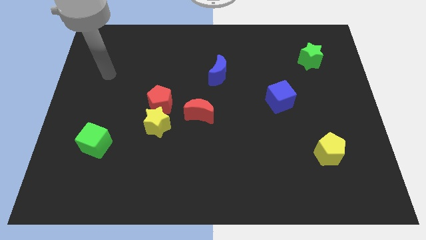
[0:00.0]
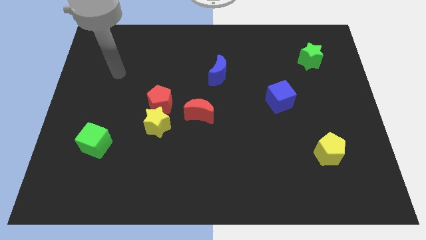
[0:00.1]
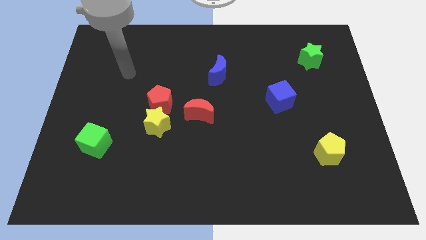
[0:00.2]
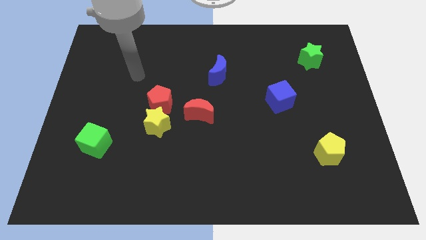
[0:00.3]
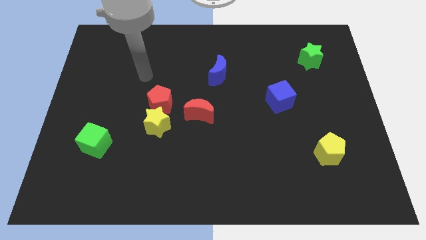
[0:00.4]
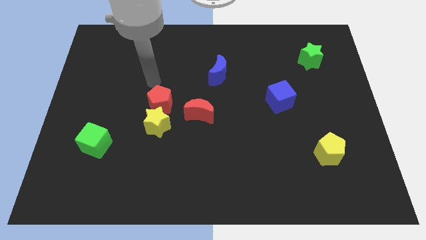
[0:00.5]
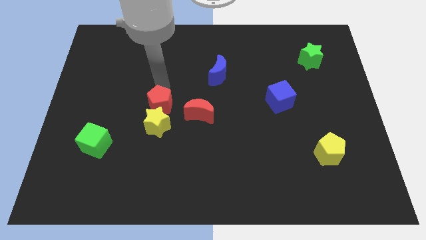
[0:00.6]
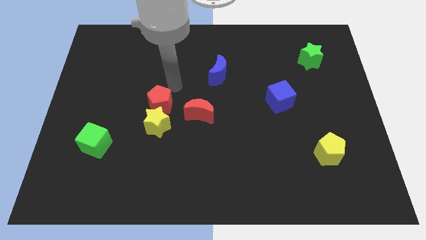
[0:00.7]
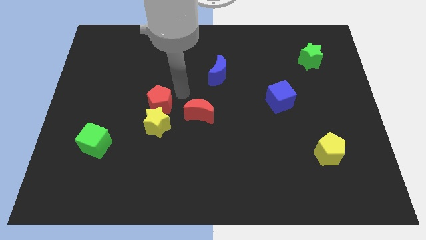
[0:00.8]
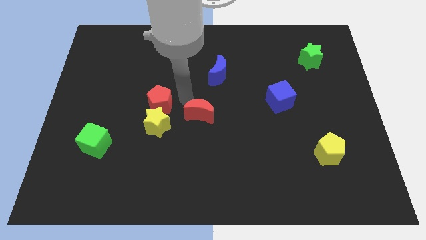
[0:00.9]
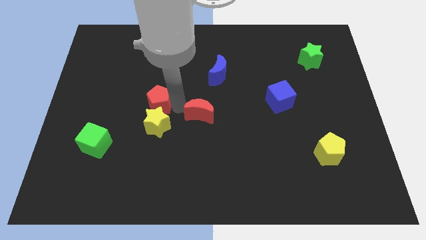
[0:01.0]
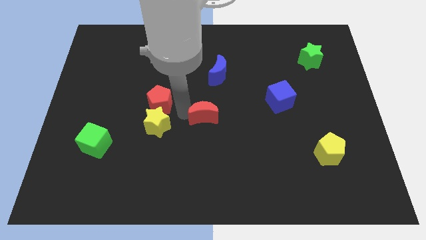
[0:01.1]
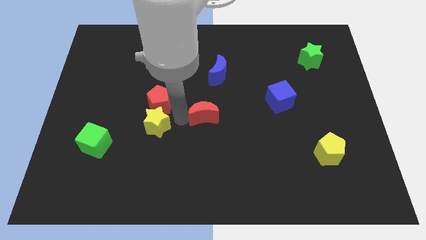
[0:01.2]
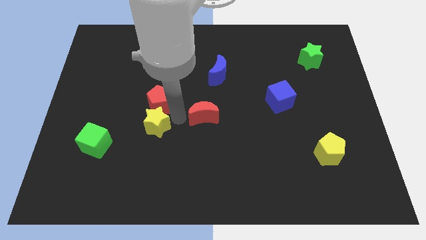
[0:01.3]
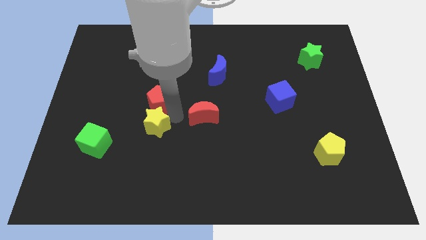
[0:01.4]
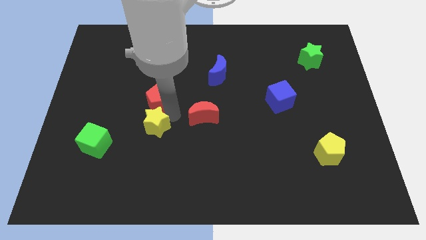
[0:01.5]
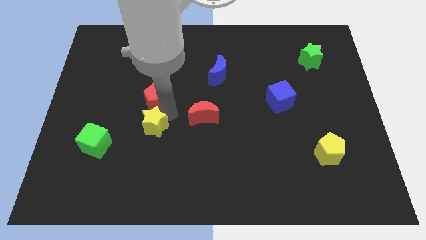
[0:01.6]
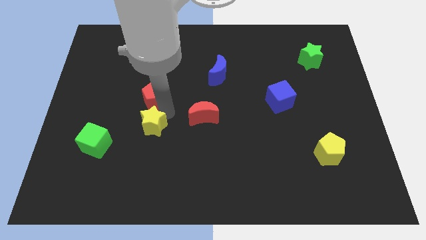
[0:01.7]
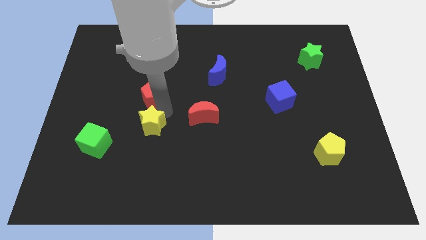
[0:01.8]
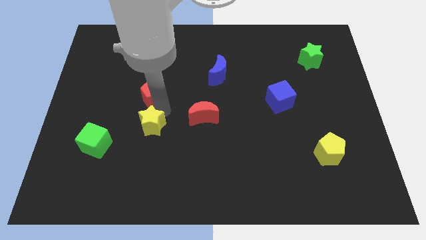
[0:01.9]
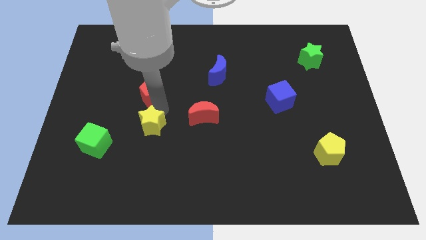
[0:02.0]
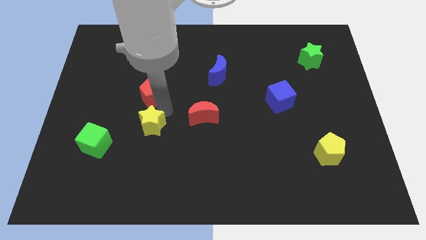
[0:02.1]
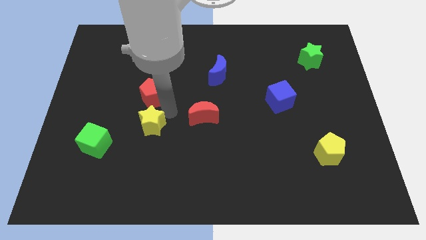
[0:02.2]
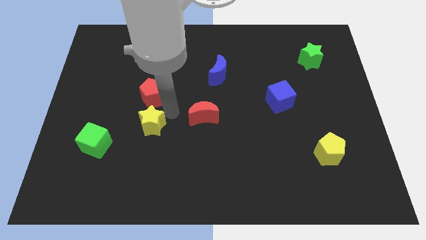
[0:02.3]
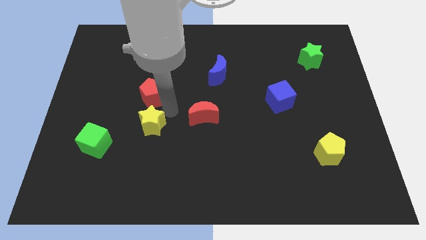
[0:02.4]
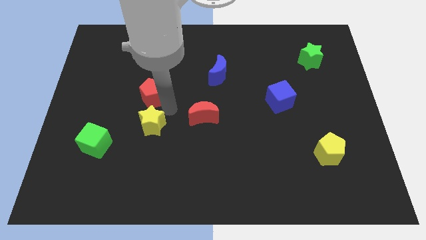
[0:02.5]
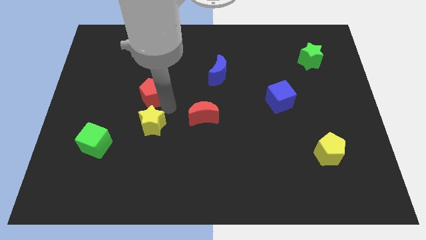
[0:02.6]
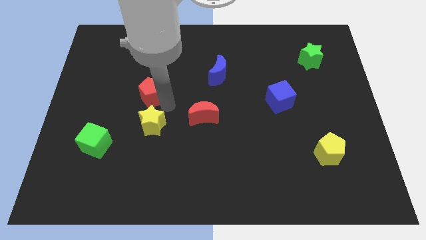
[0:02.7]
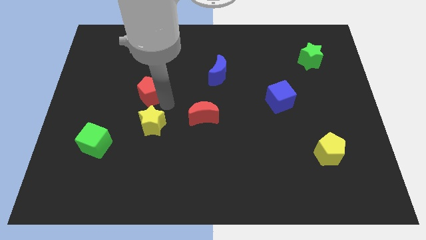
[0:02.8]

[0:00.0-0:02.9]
separate the red pentagon from the yellow star and red moon

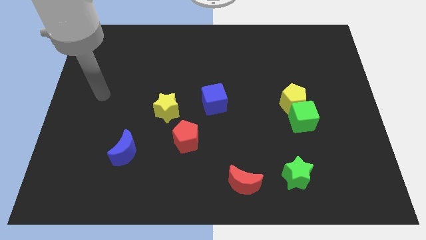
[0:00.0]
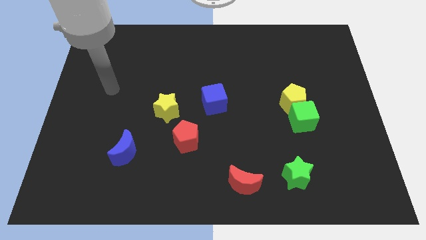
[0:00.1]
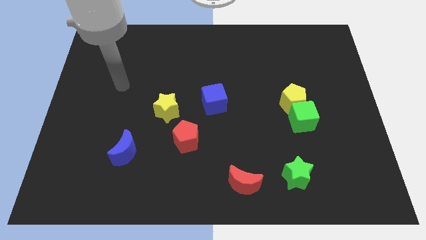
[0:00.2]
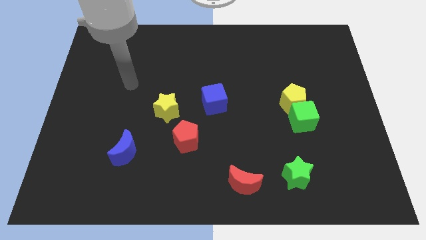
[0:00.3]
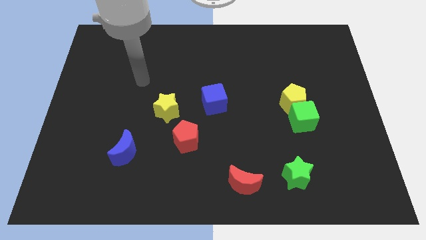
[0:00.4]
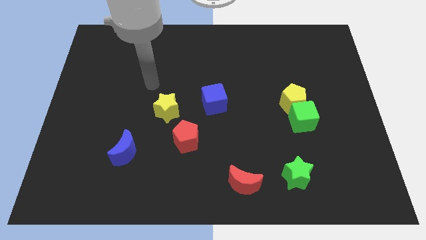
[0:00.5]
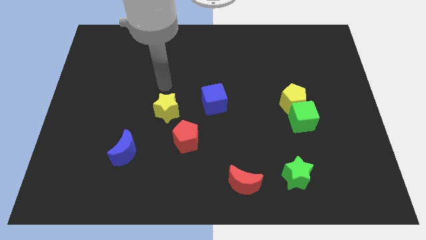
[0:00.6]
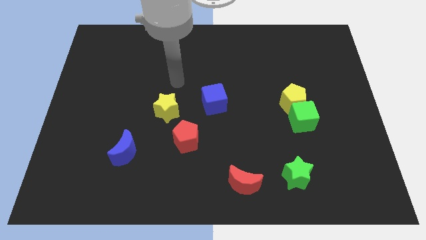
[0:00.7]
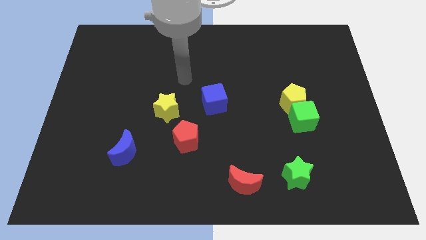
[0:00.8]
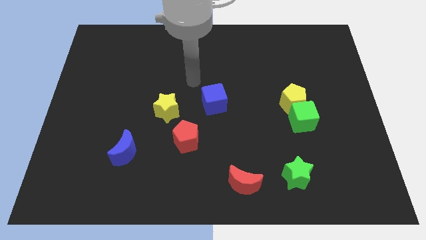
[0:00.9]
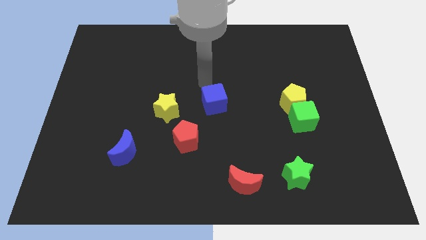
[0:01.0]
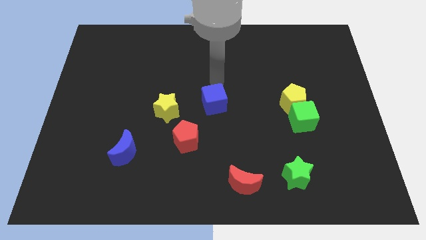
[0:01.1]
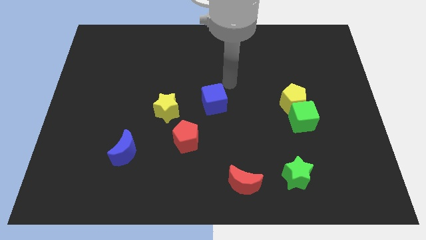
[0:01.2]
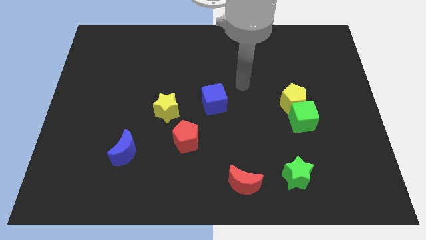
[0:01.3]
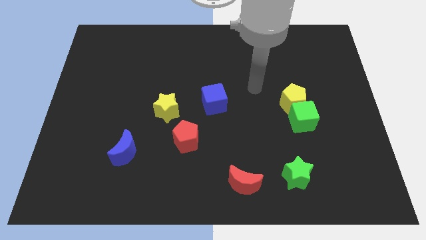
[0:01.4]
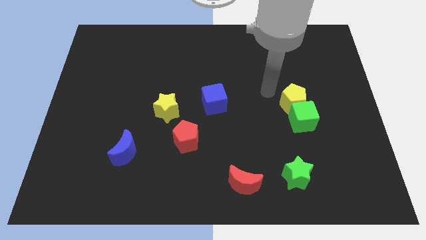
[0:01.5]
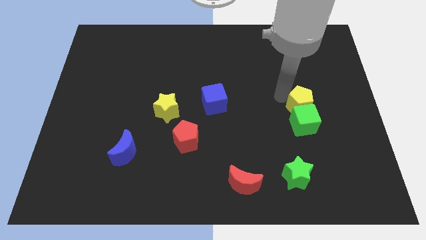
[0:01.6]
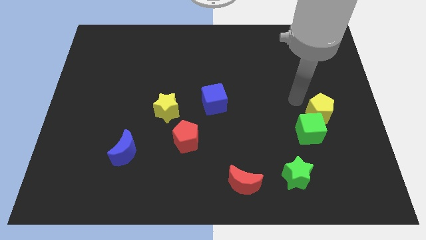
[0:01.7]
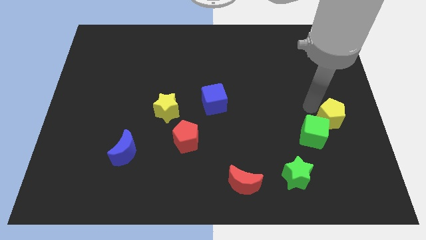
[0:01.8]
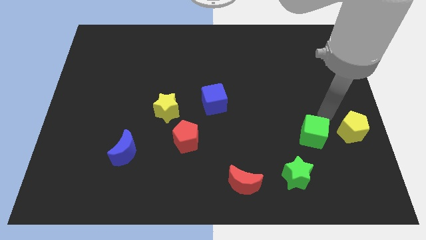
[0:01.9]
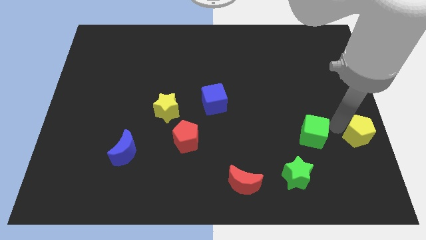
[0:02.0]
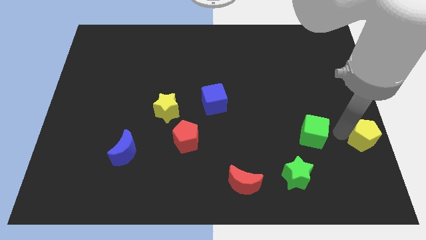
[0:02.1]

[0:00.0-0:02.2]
move the green cube away from the yellow pentagon

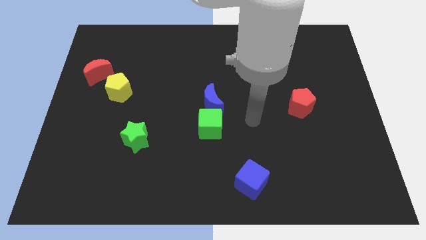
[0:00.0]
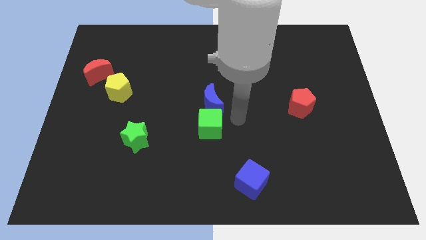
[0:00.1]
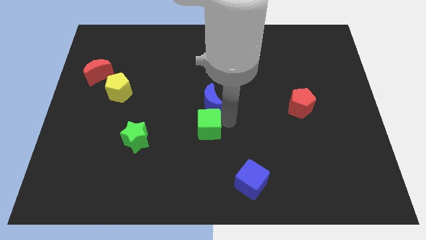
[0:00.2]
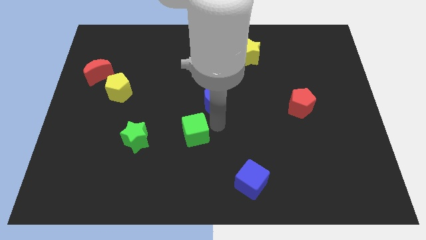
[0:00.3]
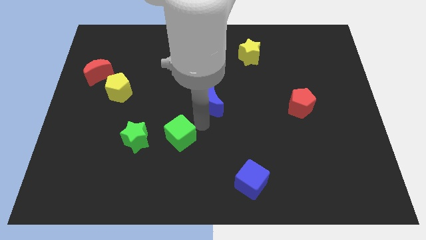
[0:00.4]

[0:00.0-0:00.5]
pull the blue moon apart from the green cube

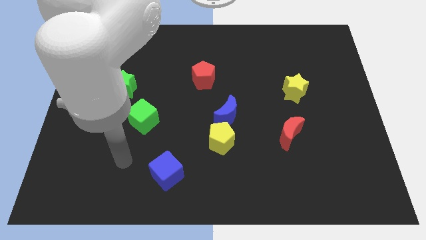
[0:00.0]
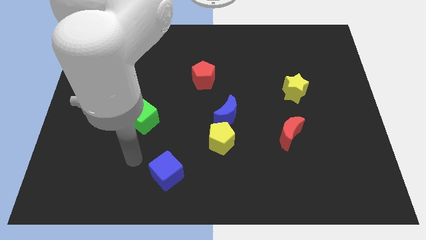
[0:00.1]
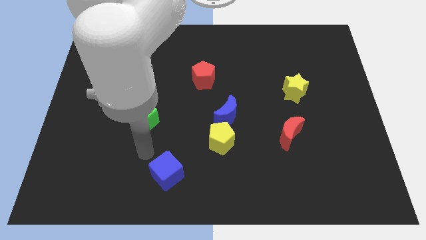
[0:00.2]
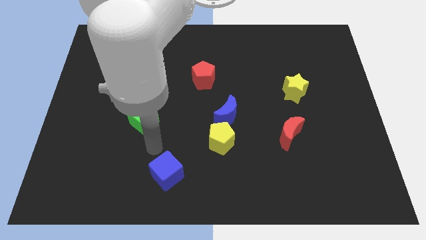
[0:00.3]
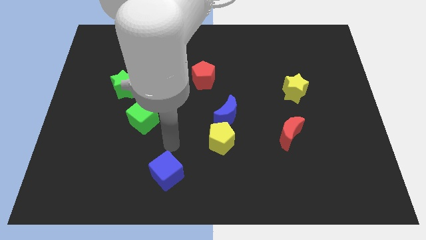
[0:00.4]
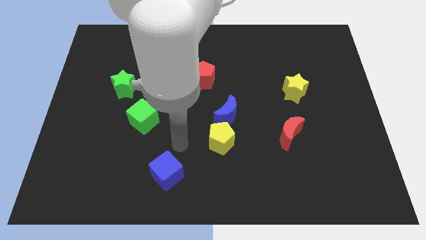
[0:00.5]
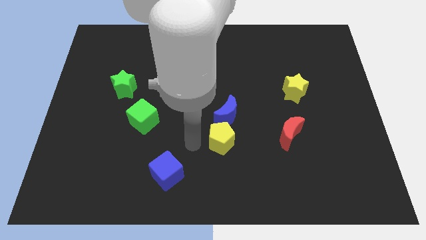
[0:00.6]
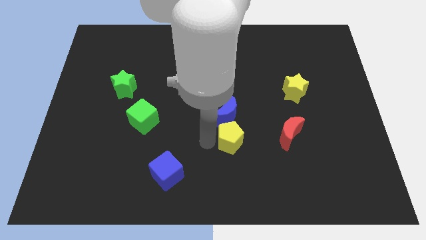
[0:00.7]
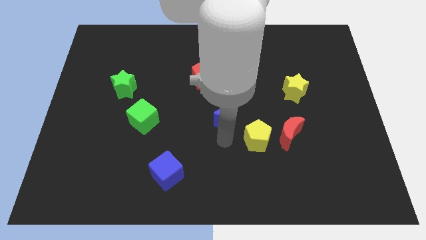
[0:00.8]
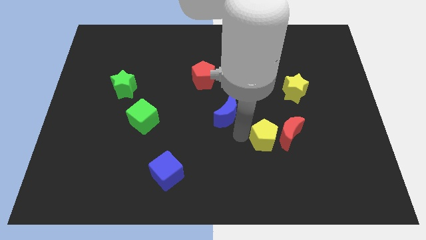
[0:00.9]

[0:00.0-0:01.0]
pull the blue moon apart from the yellow pentagon

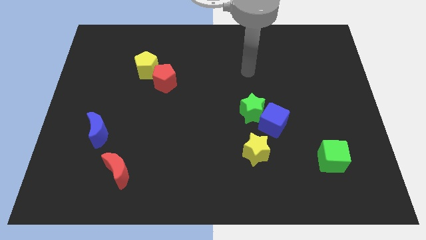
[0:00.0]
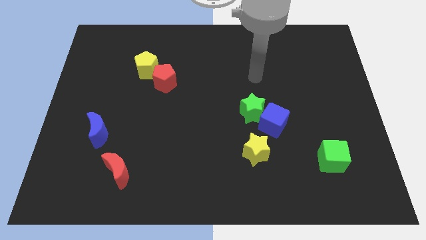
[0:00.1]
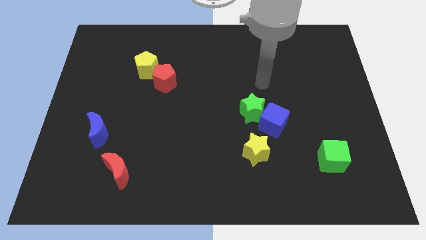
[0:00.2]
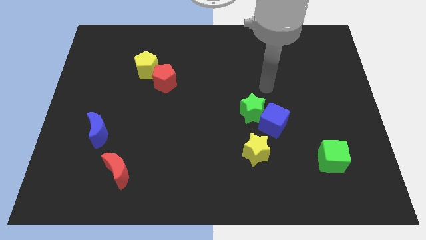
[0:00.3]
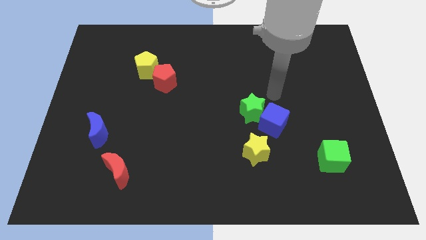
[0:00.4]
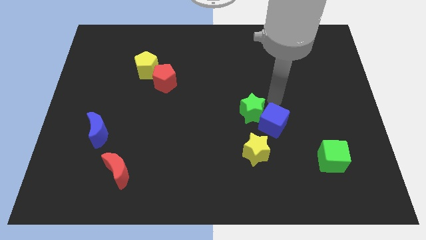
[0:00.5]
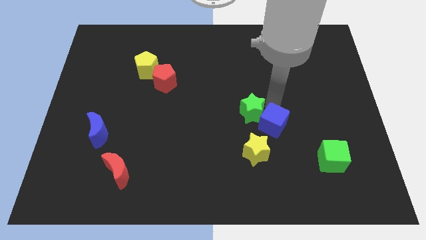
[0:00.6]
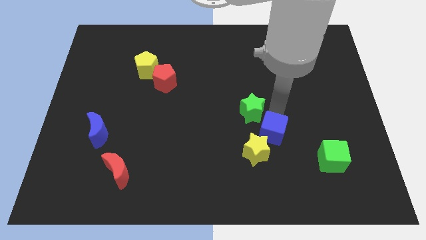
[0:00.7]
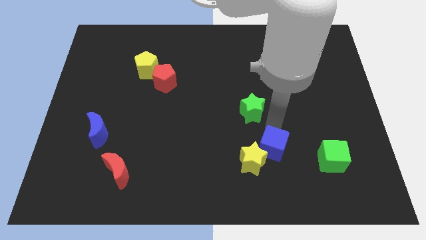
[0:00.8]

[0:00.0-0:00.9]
pull the green star apart from the blue cube

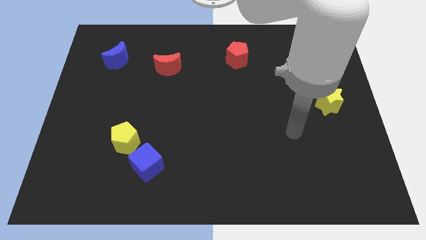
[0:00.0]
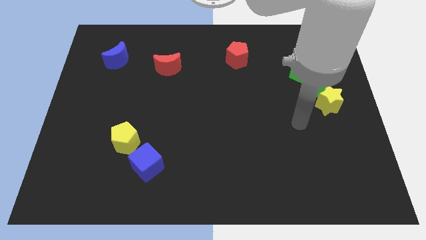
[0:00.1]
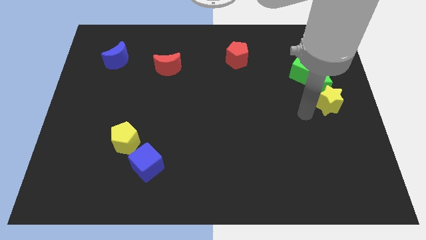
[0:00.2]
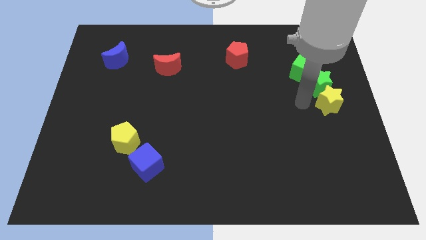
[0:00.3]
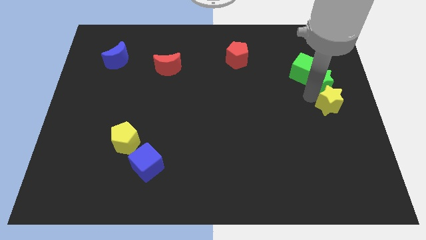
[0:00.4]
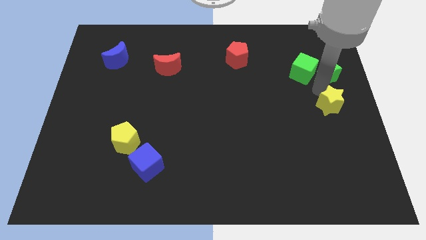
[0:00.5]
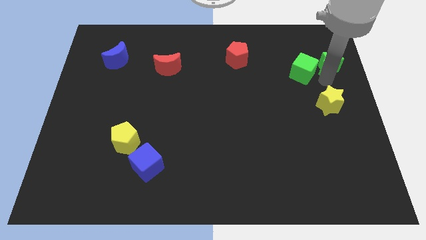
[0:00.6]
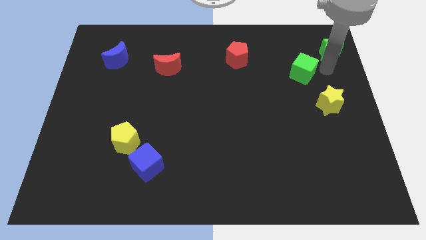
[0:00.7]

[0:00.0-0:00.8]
pull the green cube apart from the green star

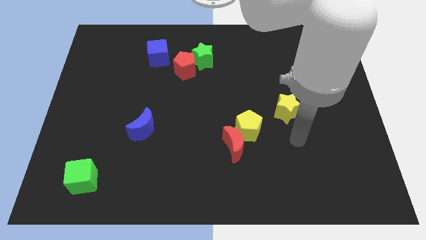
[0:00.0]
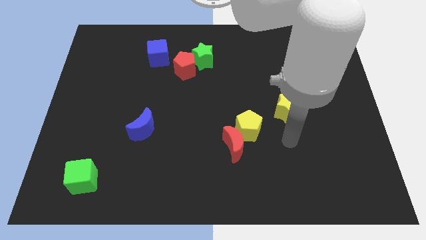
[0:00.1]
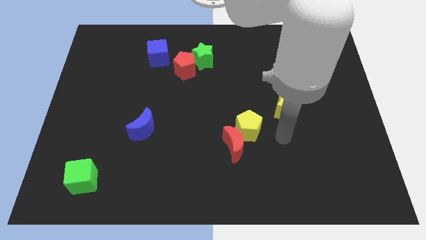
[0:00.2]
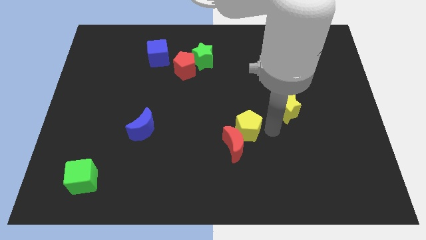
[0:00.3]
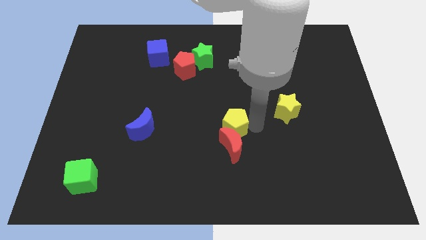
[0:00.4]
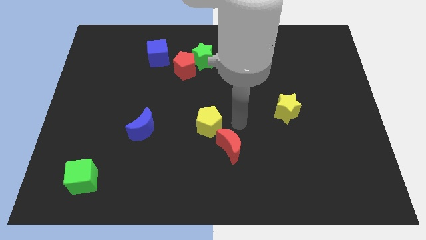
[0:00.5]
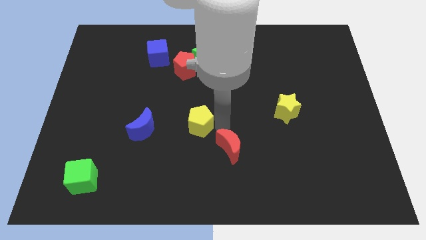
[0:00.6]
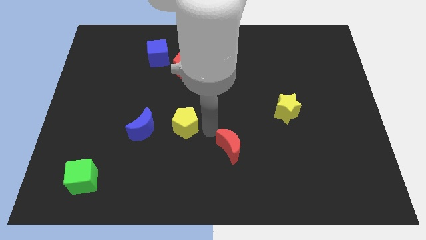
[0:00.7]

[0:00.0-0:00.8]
move the red moon away from the yellow pentagon

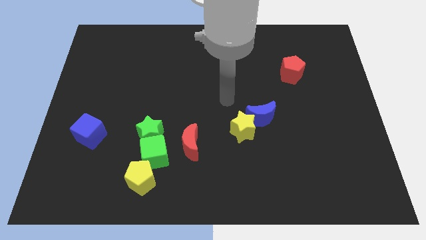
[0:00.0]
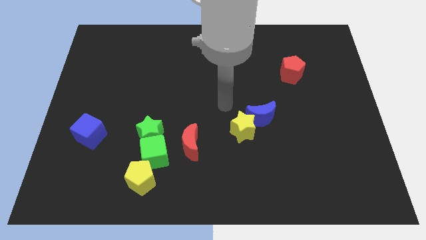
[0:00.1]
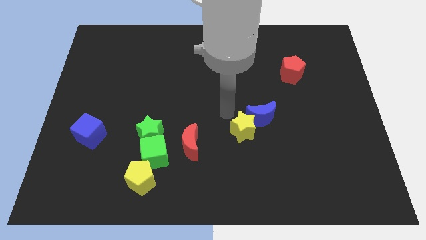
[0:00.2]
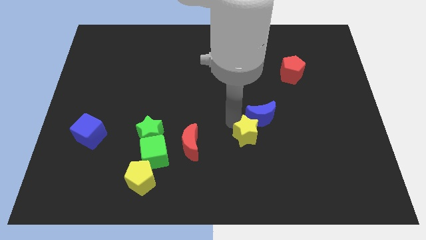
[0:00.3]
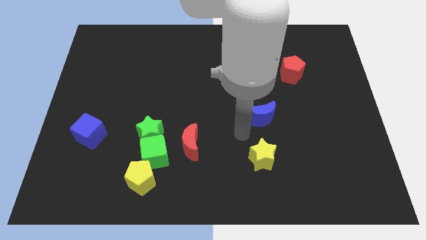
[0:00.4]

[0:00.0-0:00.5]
separate the blue moon from the yellow star
